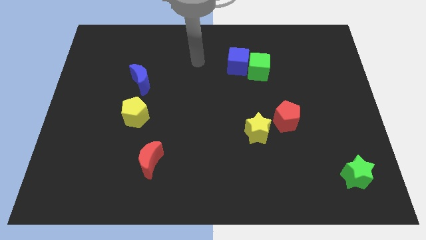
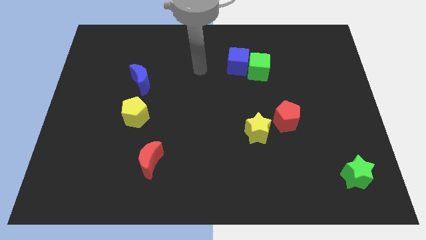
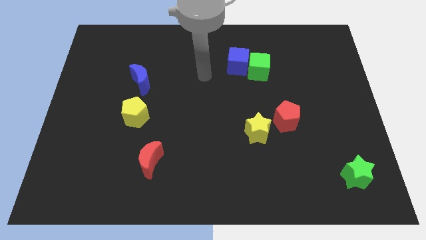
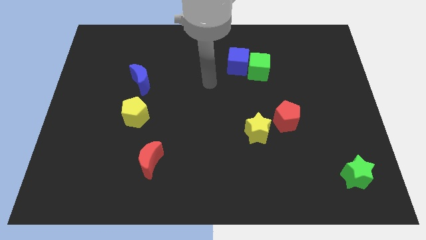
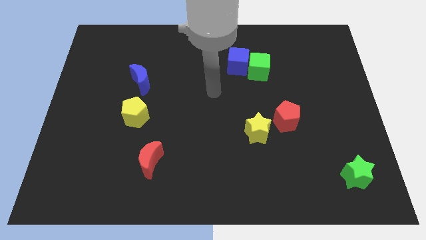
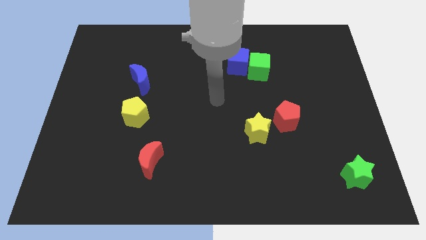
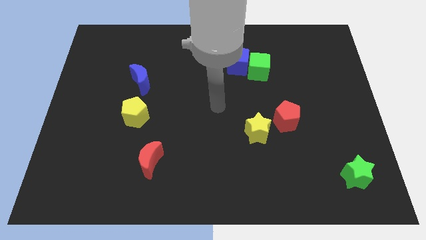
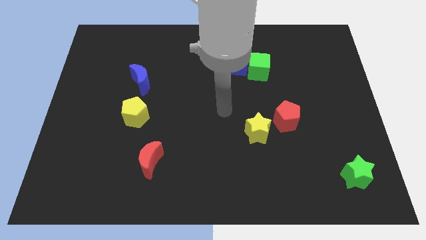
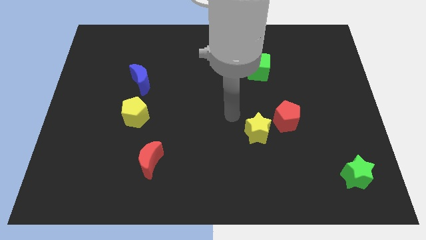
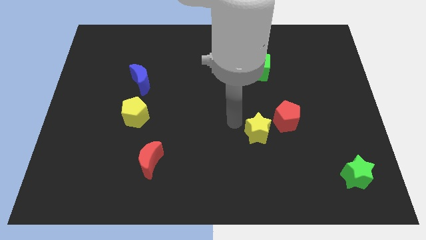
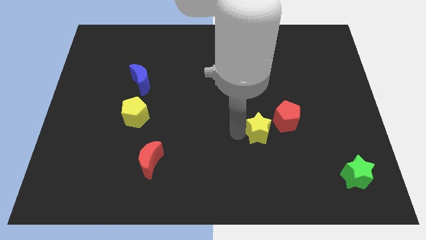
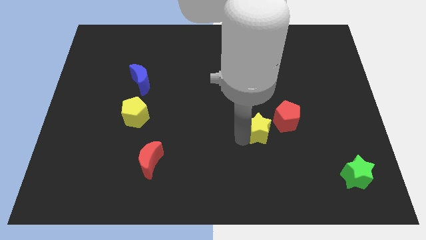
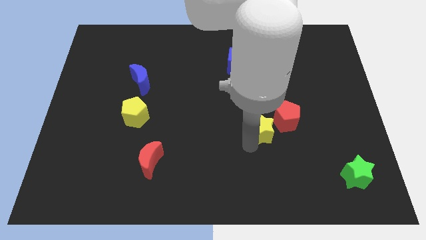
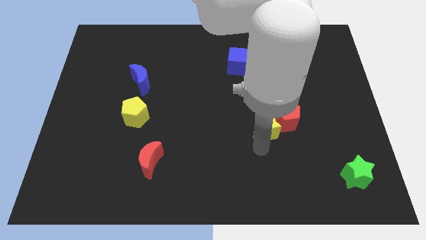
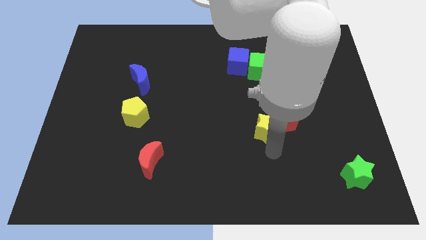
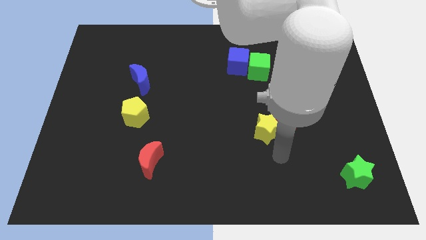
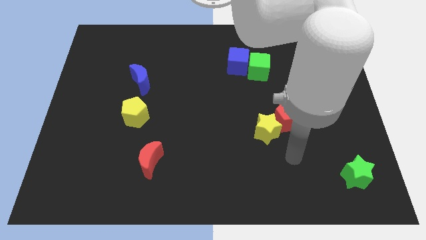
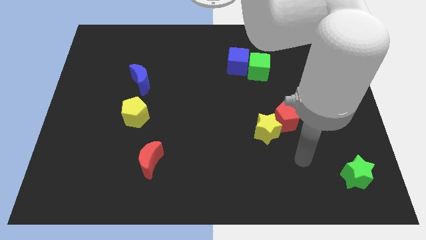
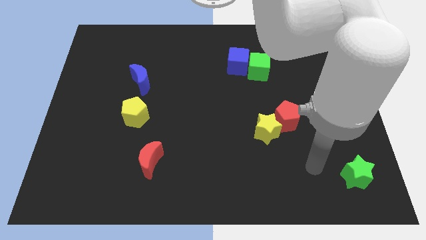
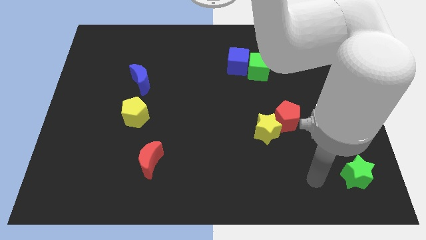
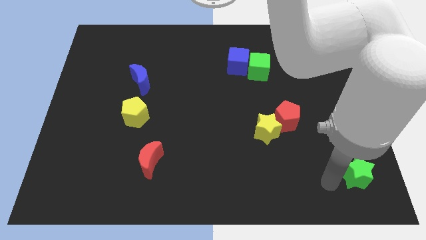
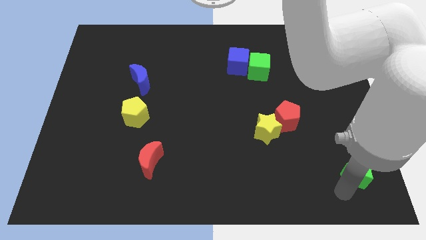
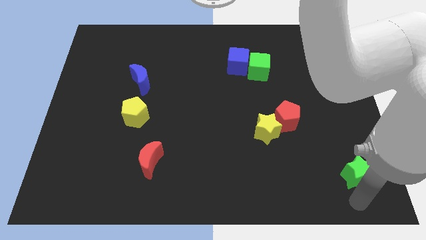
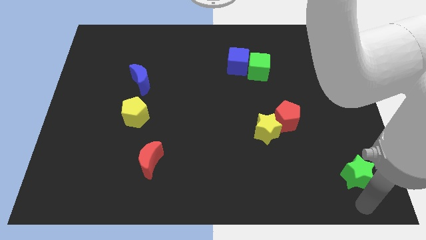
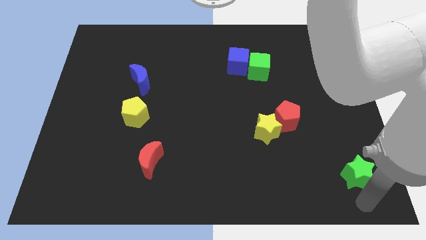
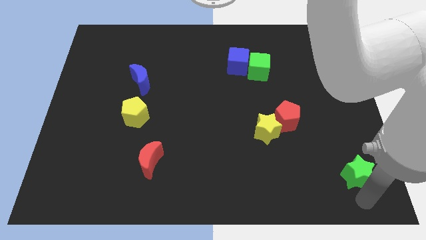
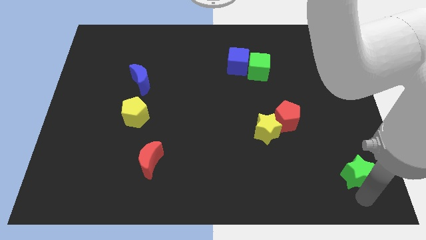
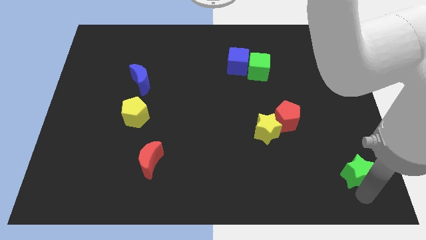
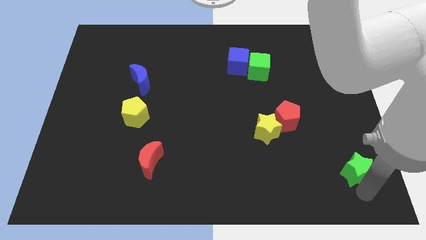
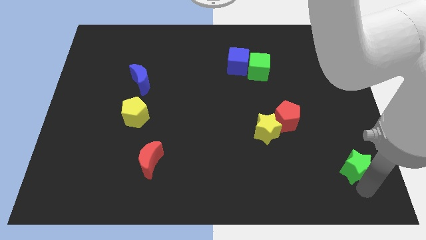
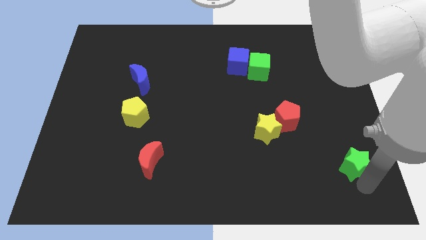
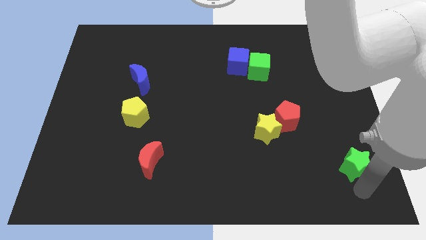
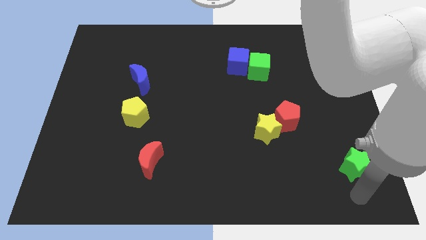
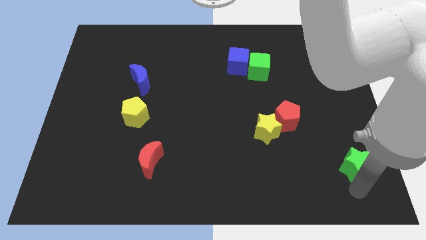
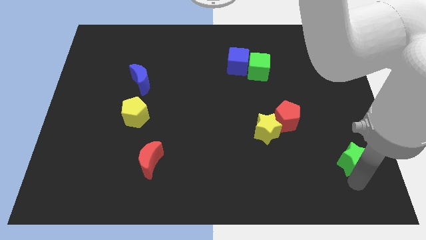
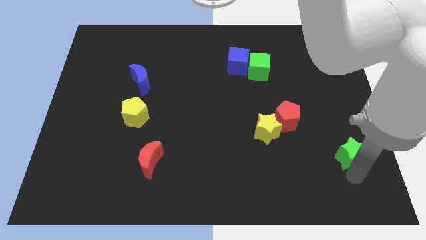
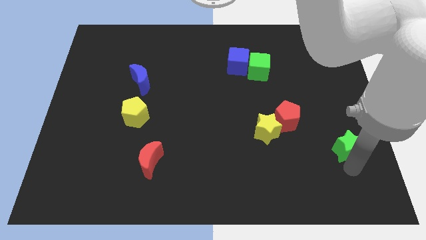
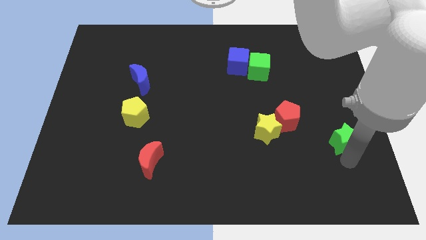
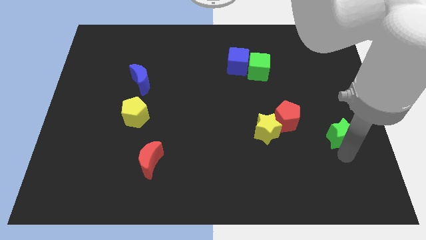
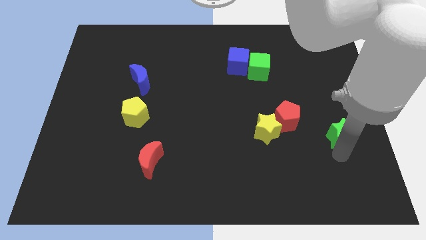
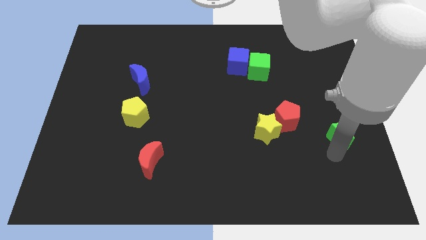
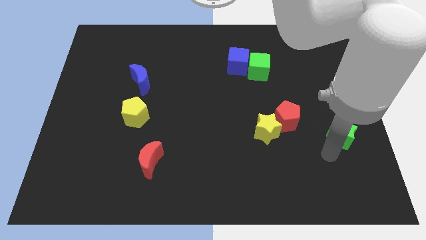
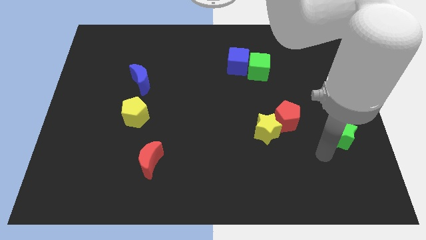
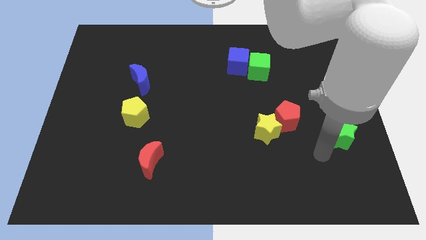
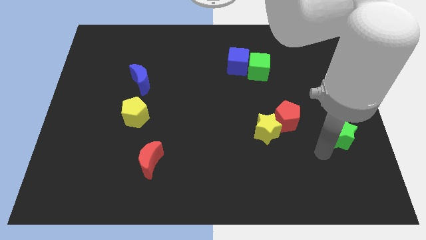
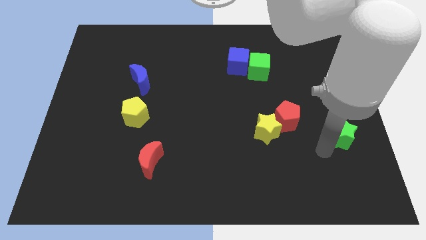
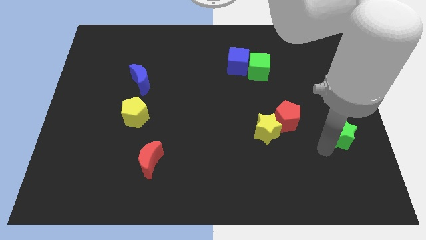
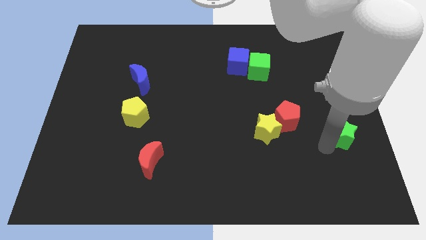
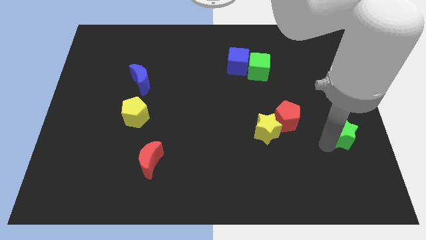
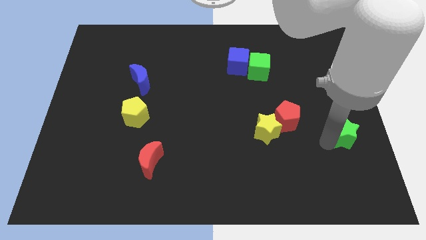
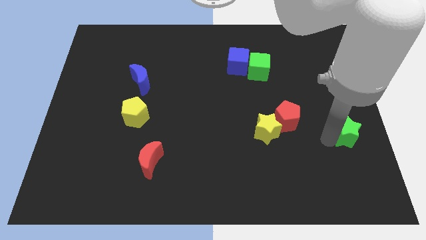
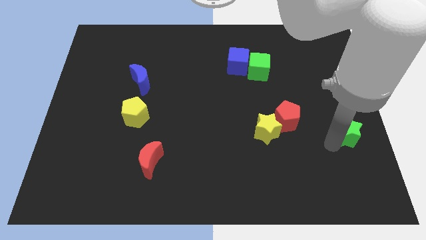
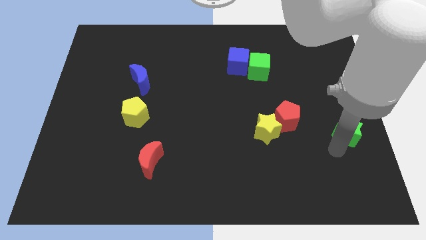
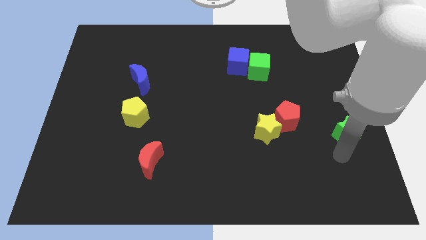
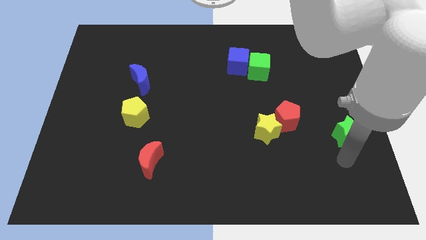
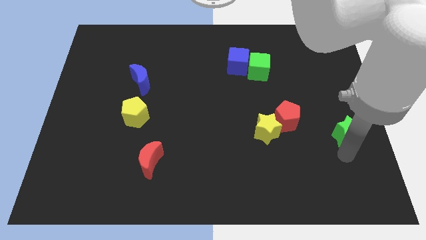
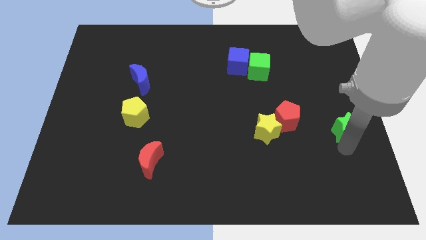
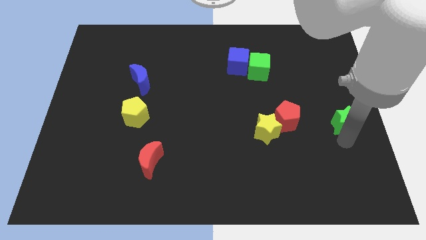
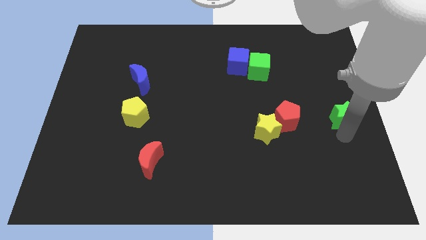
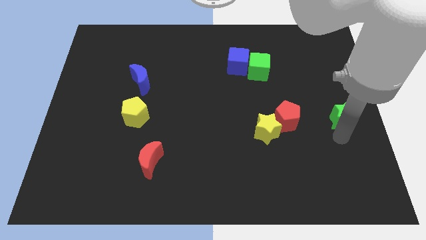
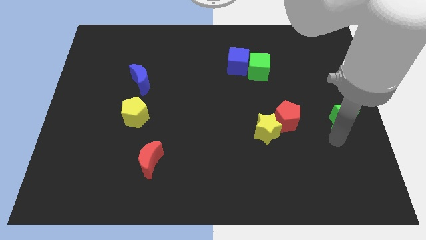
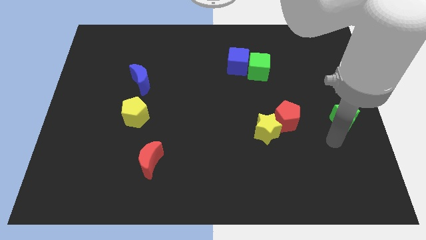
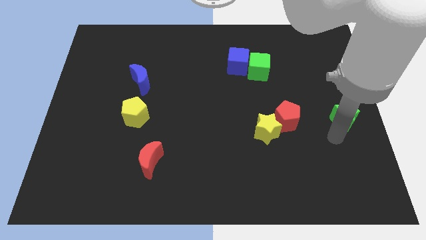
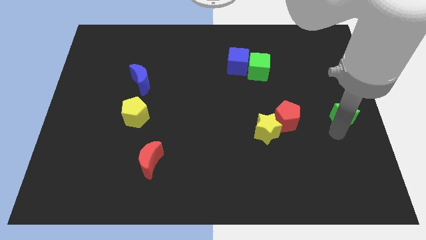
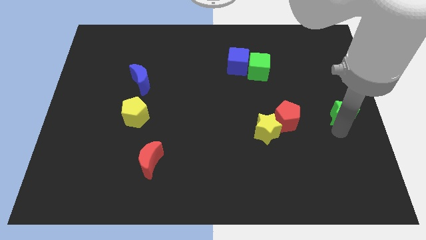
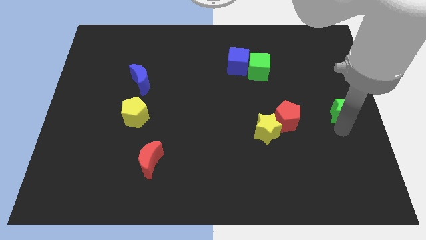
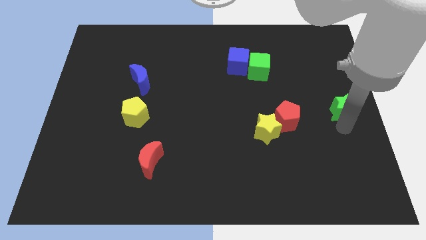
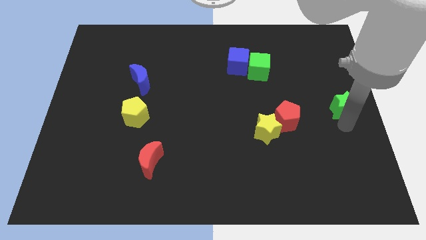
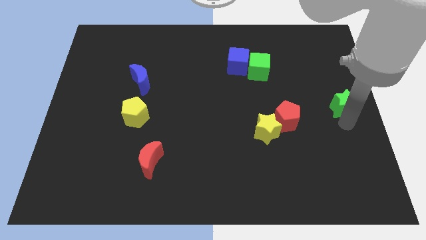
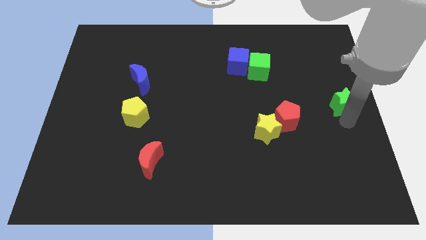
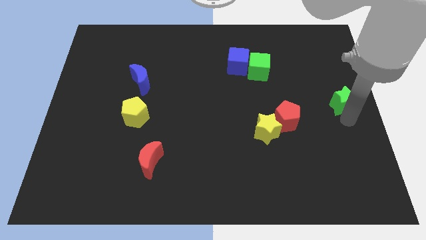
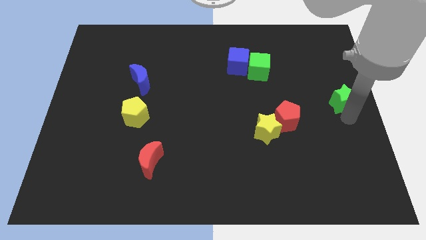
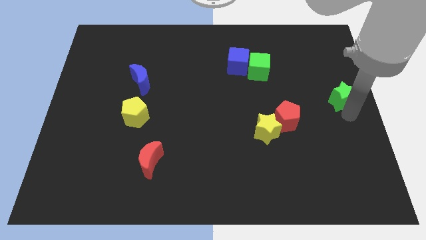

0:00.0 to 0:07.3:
push the green star upwards

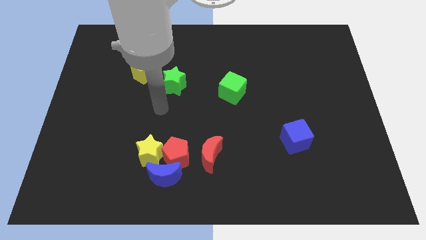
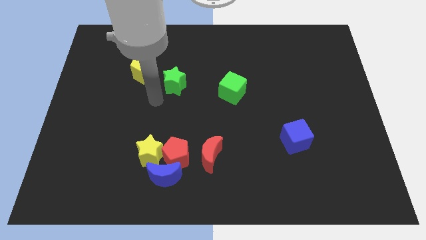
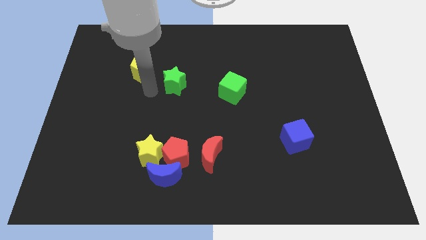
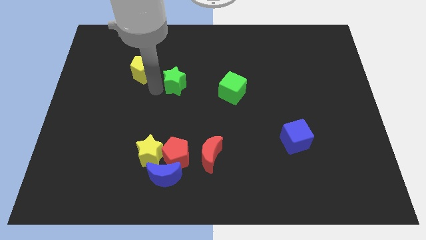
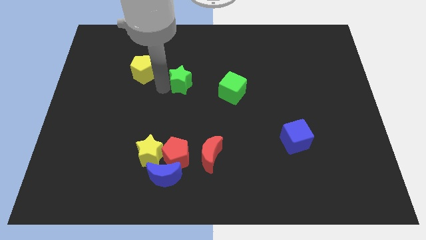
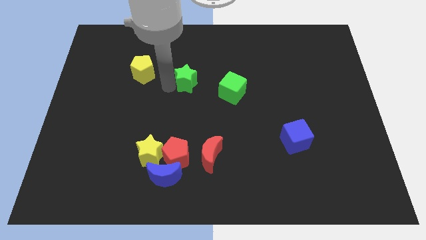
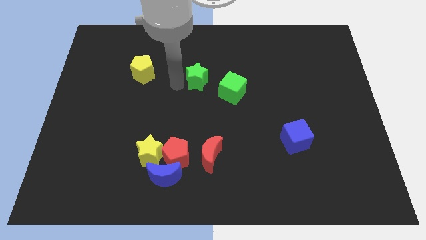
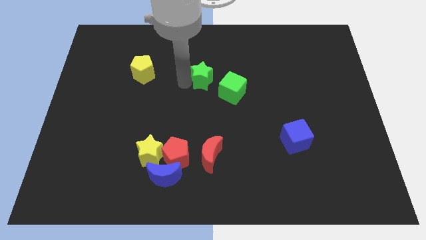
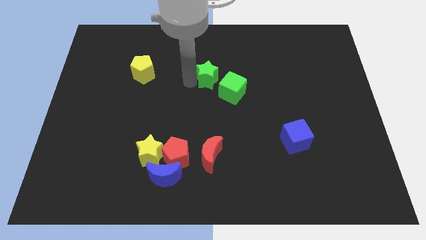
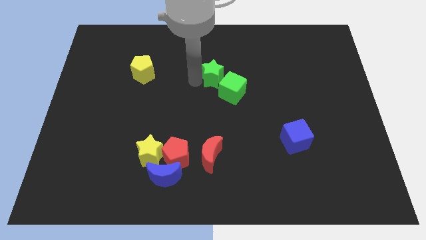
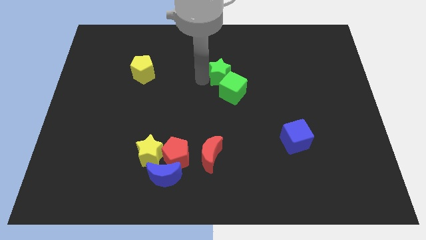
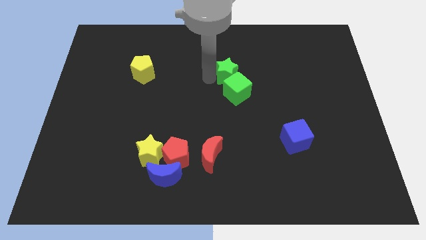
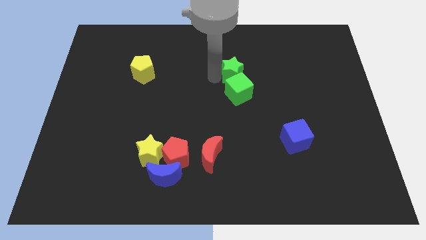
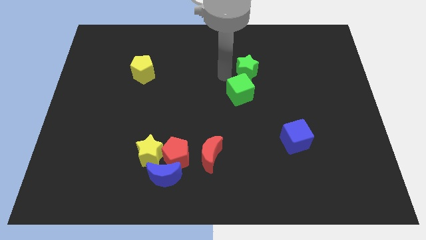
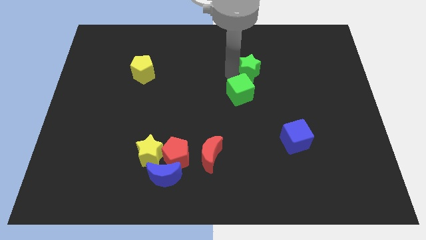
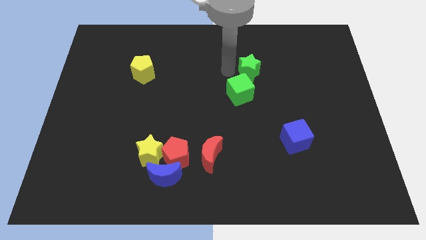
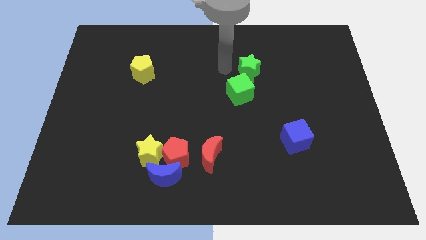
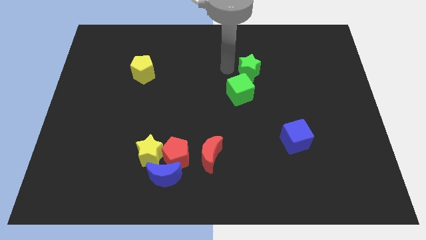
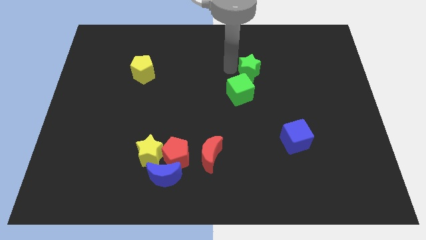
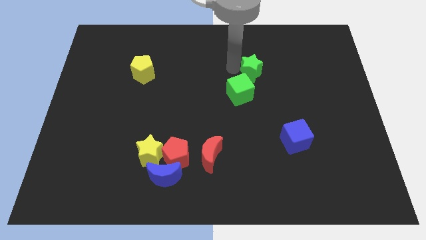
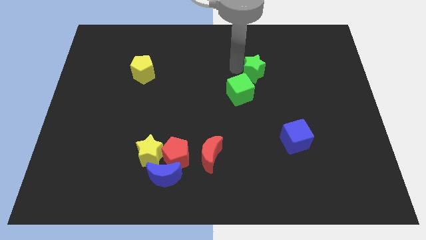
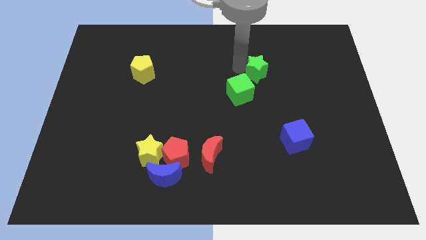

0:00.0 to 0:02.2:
move the green star to the right
